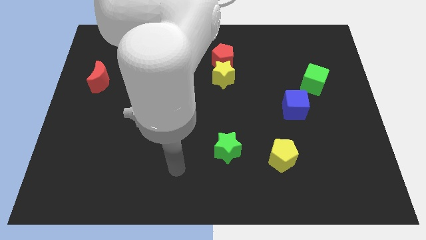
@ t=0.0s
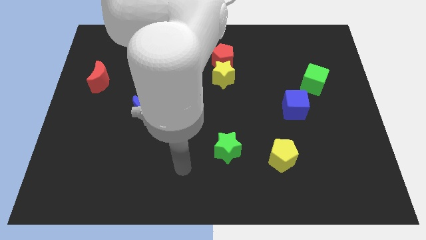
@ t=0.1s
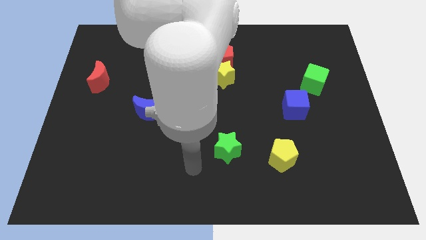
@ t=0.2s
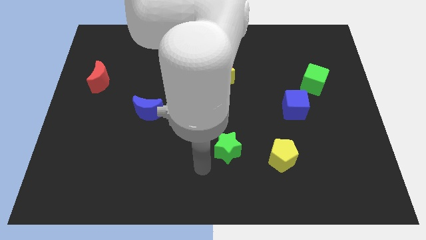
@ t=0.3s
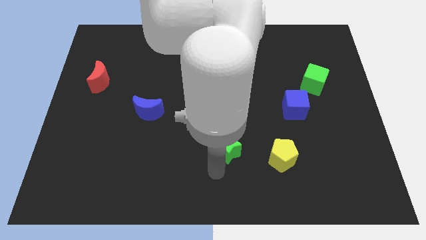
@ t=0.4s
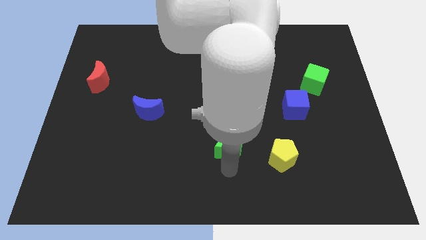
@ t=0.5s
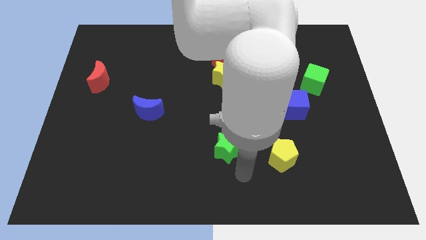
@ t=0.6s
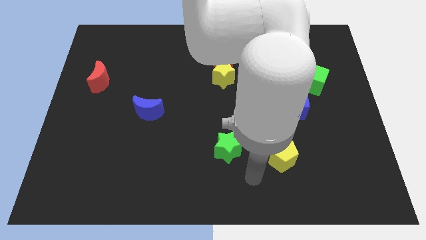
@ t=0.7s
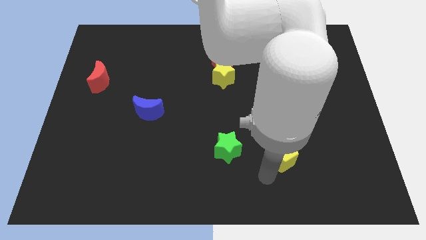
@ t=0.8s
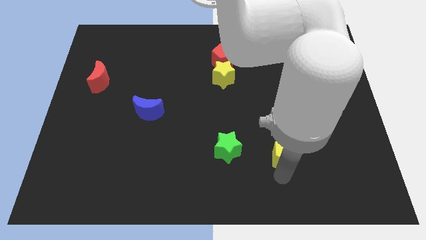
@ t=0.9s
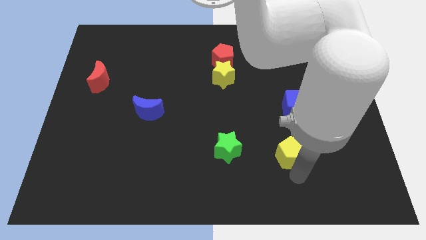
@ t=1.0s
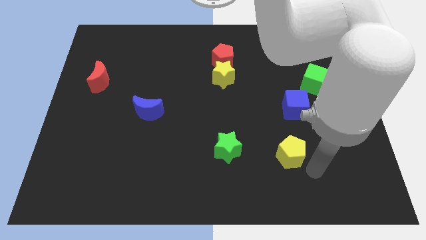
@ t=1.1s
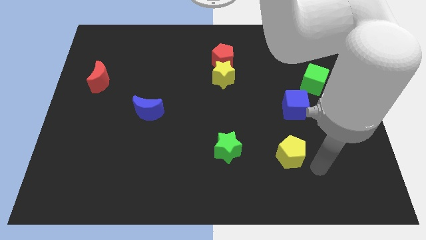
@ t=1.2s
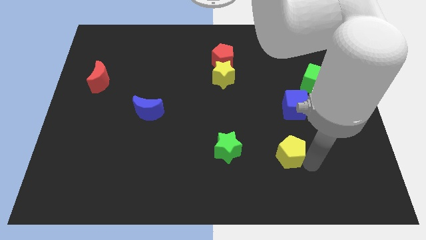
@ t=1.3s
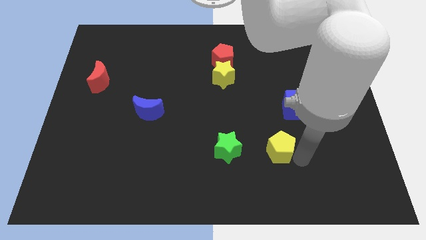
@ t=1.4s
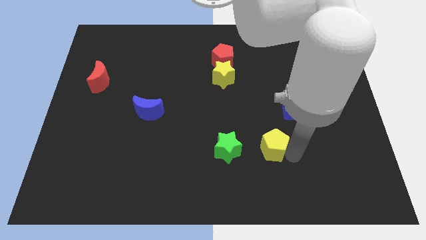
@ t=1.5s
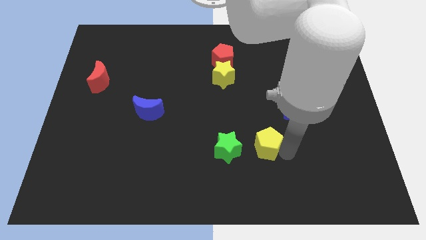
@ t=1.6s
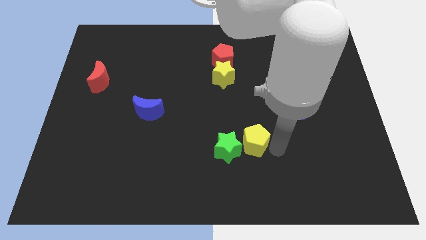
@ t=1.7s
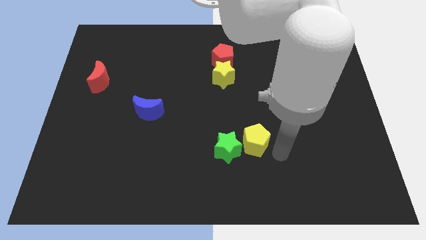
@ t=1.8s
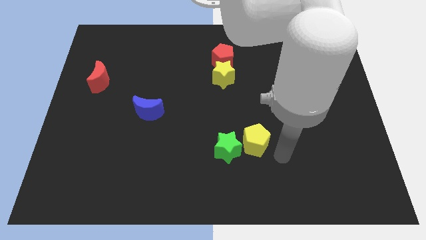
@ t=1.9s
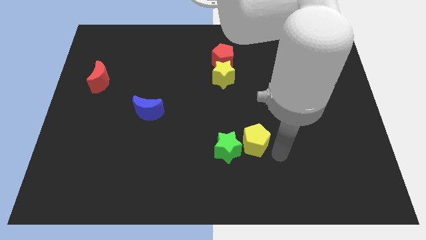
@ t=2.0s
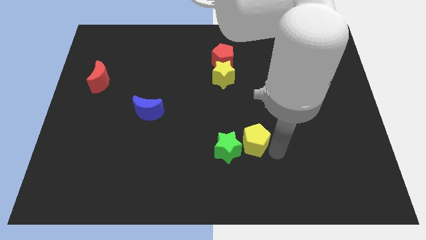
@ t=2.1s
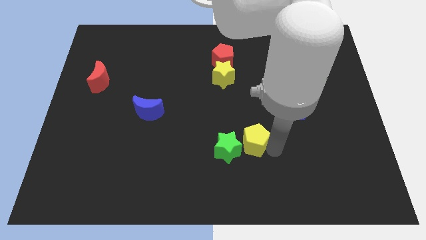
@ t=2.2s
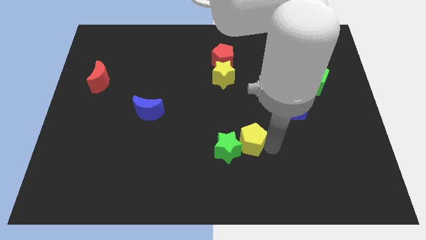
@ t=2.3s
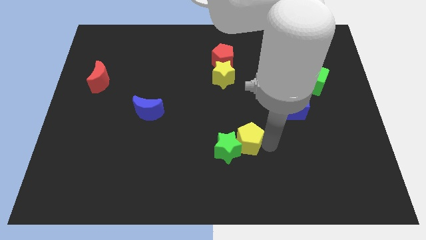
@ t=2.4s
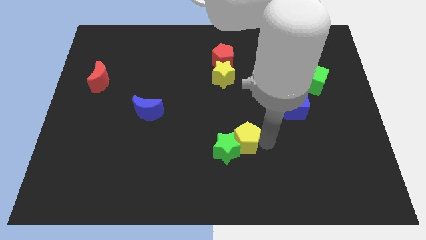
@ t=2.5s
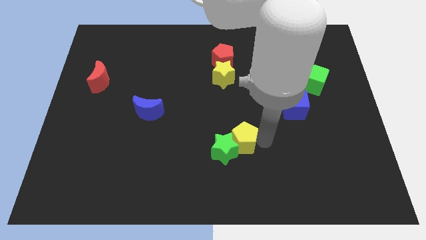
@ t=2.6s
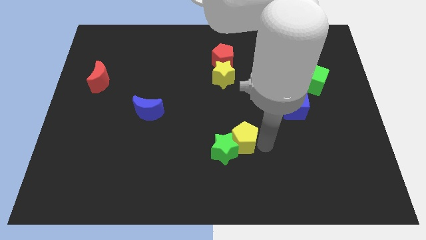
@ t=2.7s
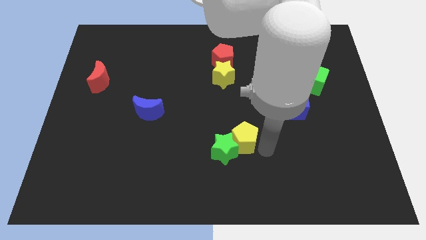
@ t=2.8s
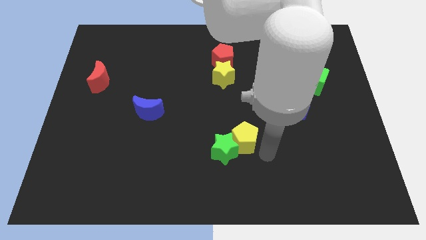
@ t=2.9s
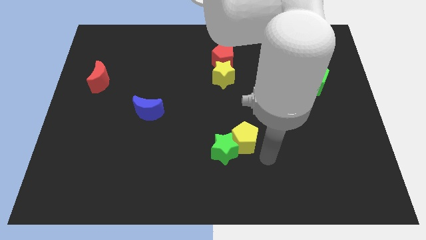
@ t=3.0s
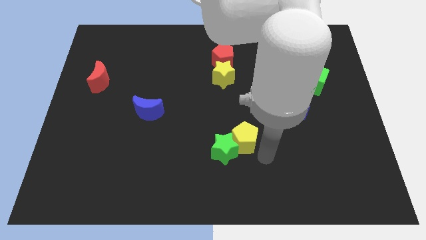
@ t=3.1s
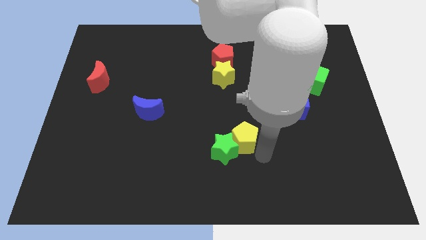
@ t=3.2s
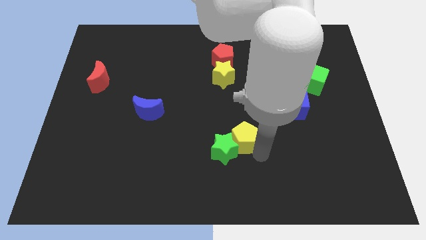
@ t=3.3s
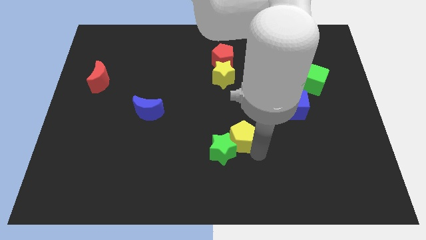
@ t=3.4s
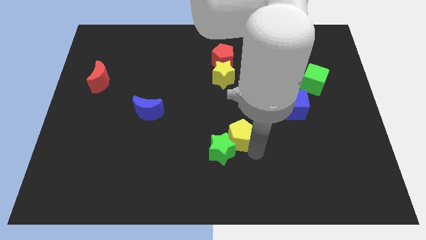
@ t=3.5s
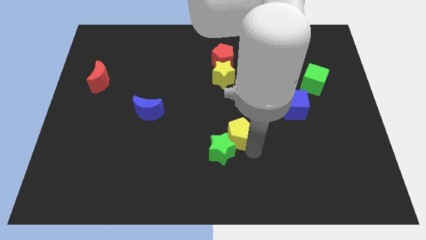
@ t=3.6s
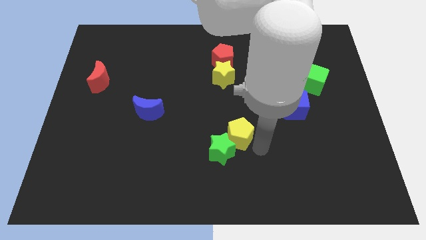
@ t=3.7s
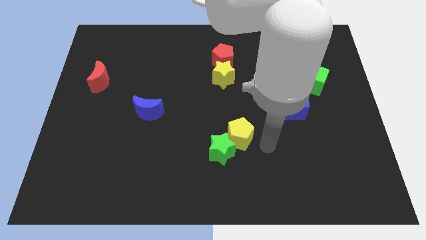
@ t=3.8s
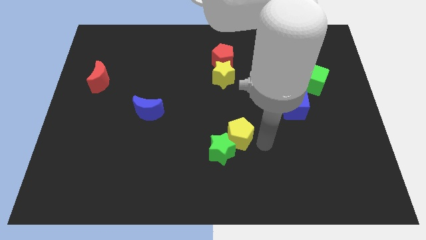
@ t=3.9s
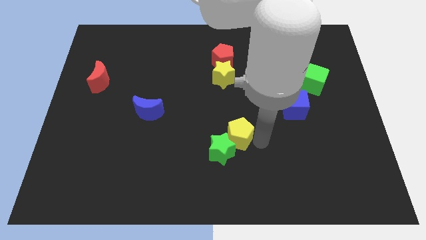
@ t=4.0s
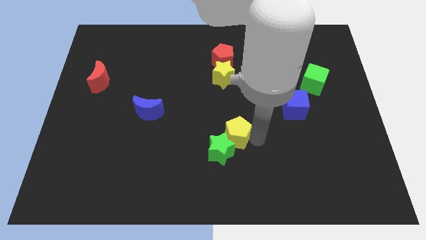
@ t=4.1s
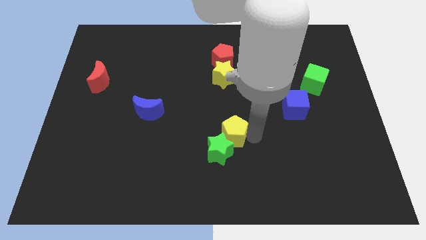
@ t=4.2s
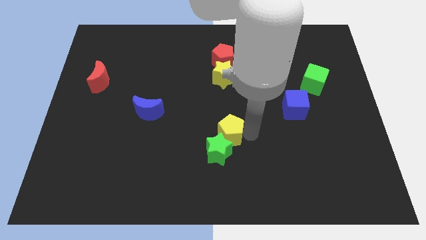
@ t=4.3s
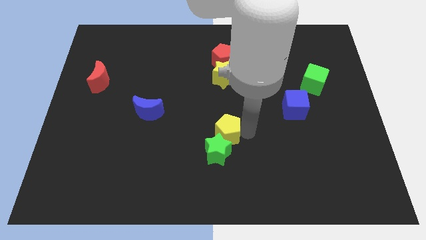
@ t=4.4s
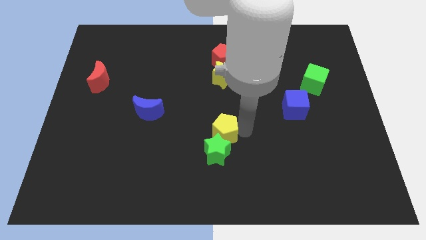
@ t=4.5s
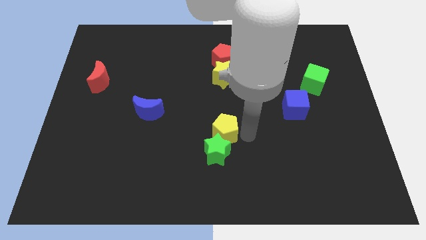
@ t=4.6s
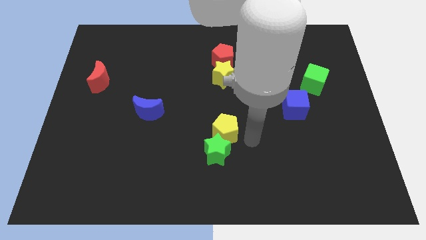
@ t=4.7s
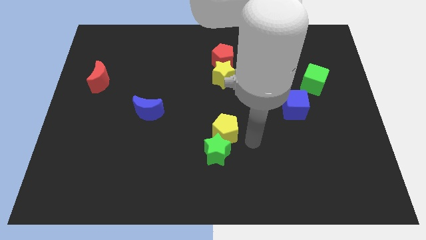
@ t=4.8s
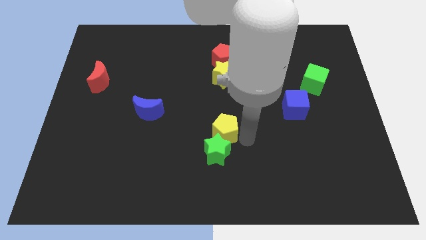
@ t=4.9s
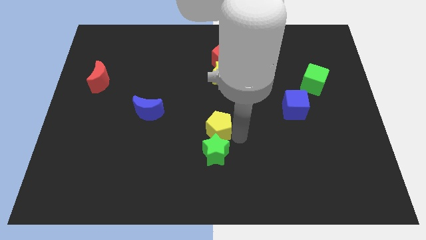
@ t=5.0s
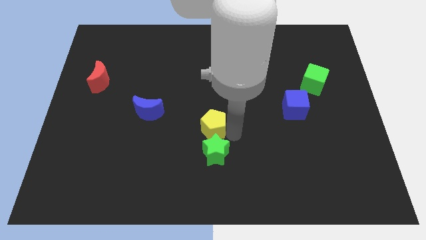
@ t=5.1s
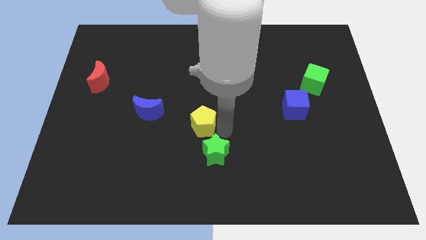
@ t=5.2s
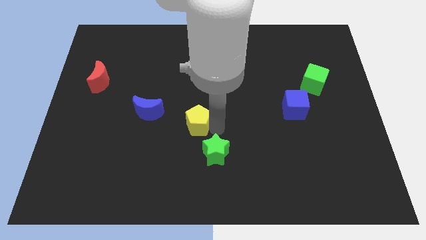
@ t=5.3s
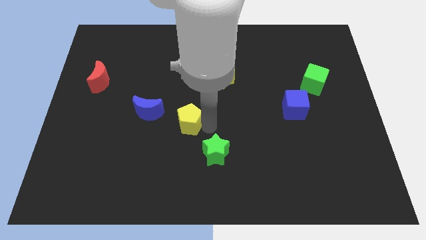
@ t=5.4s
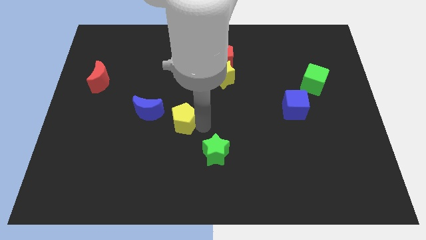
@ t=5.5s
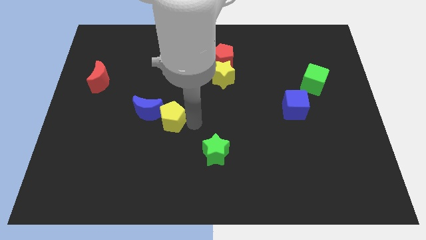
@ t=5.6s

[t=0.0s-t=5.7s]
move the yellow pentagon to the blue moon

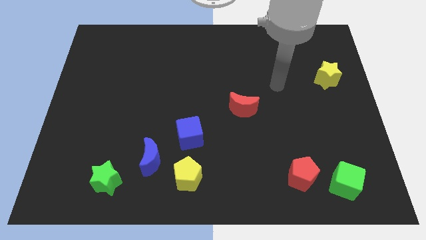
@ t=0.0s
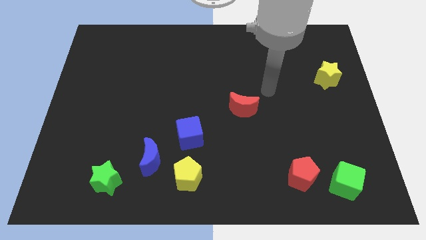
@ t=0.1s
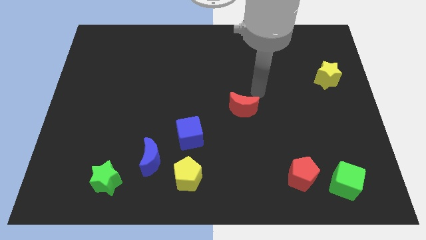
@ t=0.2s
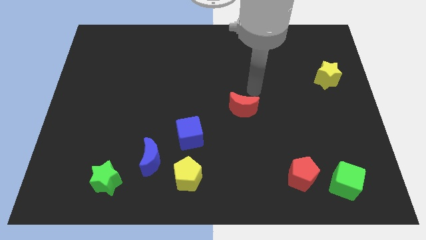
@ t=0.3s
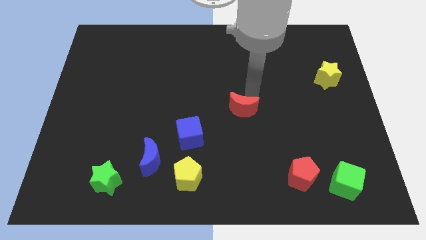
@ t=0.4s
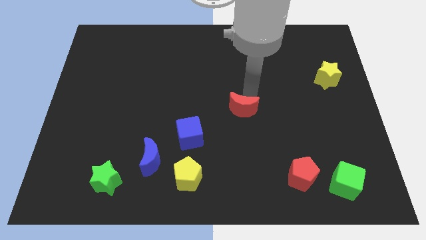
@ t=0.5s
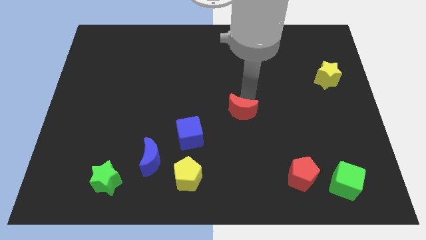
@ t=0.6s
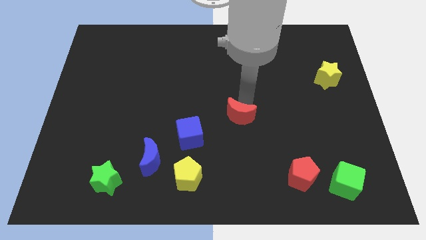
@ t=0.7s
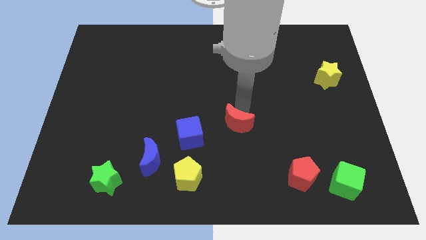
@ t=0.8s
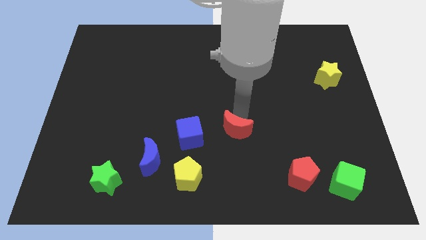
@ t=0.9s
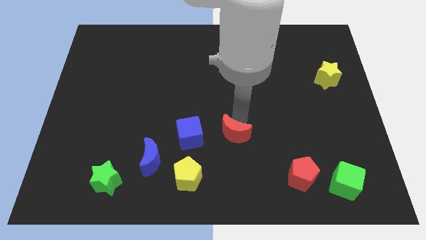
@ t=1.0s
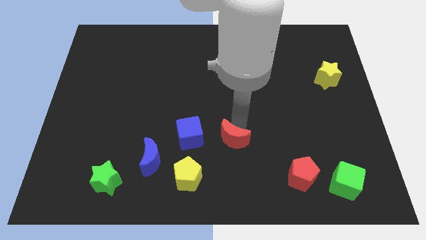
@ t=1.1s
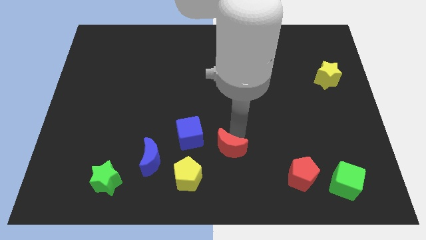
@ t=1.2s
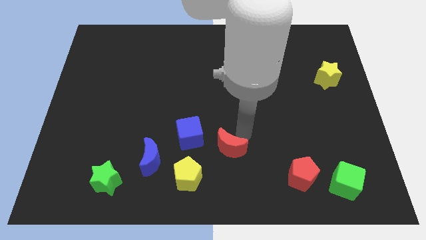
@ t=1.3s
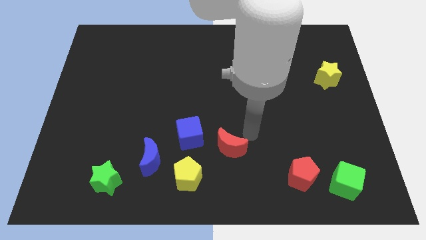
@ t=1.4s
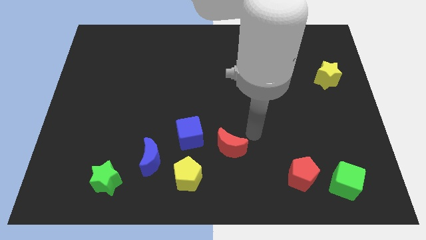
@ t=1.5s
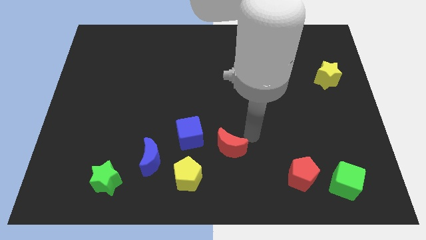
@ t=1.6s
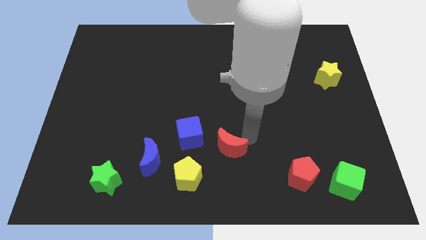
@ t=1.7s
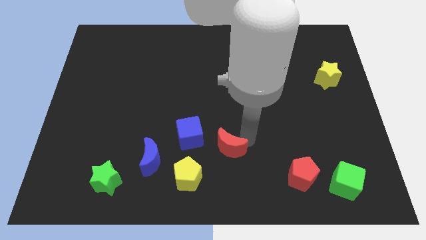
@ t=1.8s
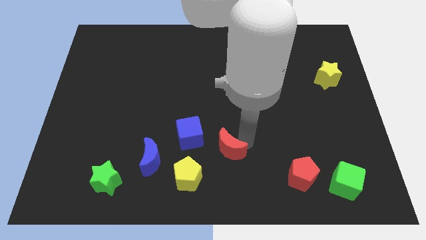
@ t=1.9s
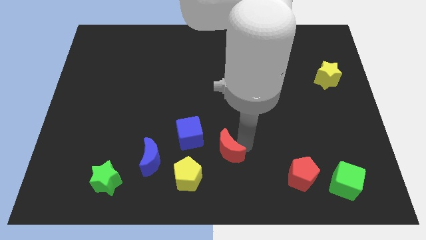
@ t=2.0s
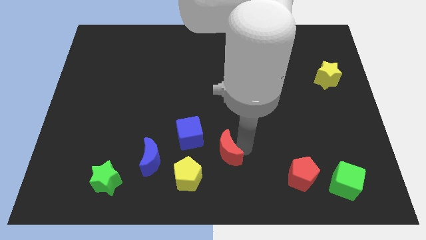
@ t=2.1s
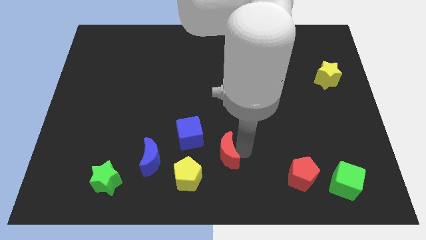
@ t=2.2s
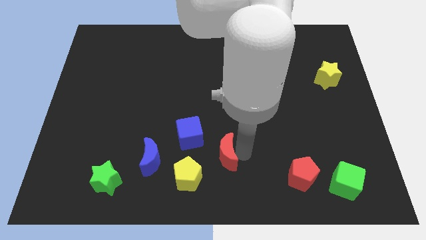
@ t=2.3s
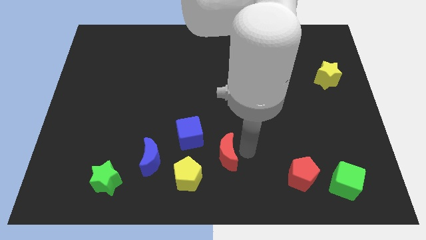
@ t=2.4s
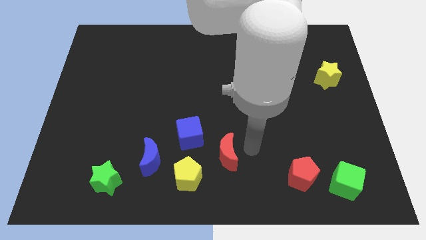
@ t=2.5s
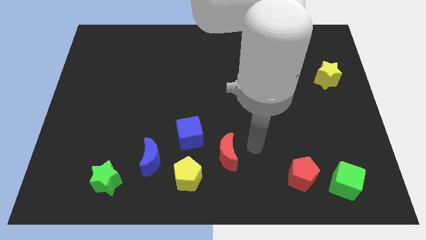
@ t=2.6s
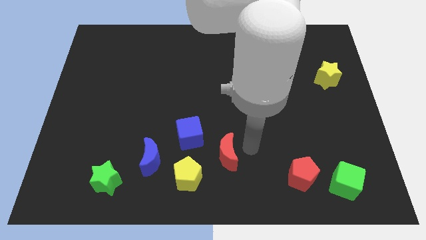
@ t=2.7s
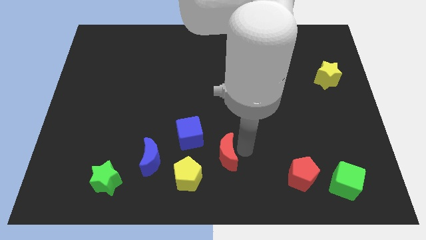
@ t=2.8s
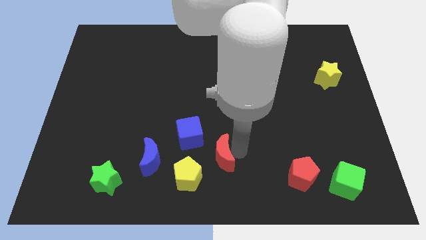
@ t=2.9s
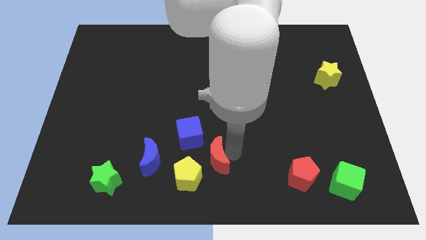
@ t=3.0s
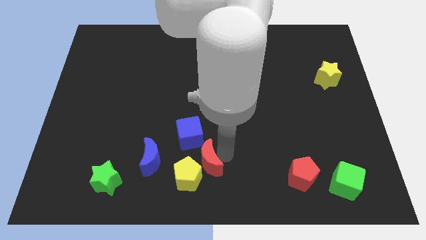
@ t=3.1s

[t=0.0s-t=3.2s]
put the red moon to the yellow pentagon
